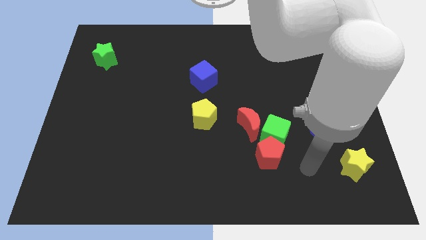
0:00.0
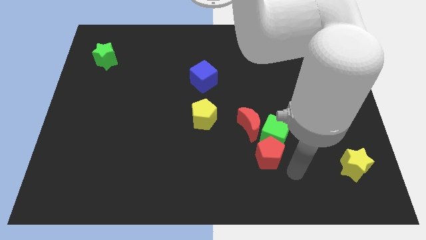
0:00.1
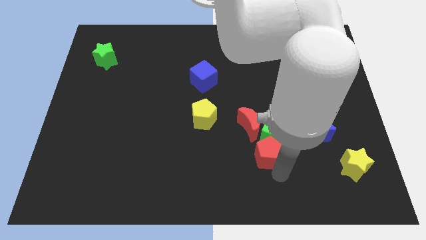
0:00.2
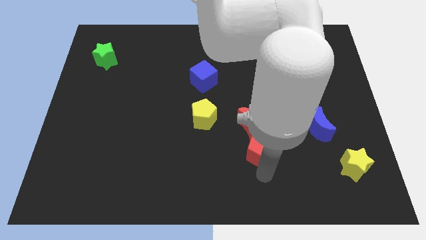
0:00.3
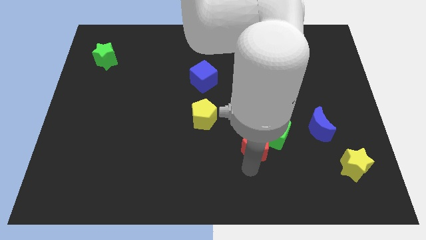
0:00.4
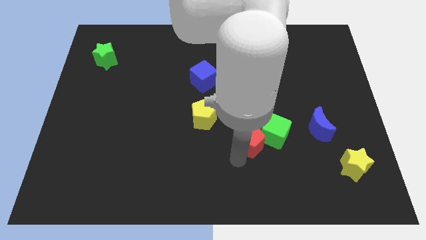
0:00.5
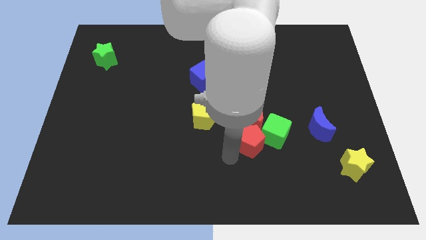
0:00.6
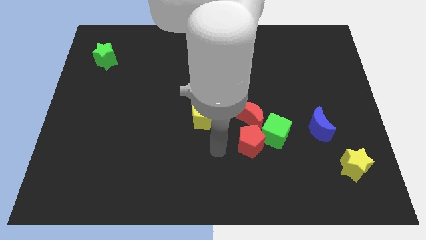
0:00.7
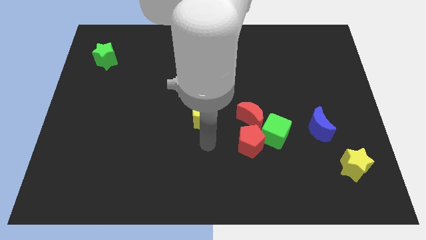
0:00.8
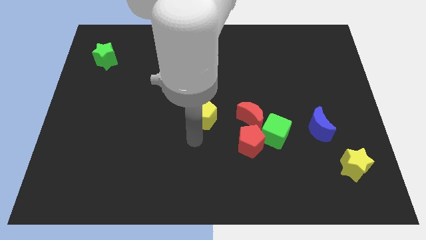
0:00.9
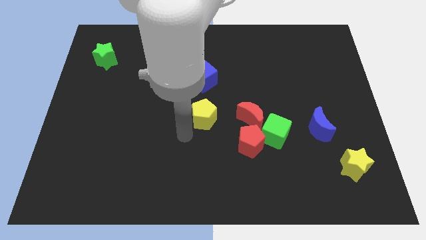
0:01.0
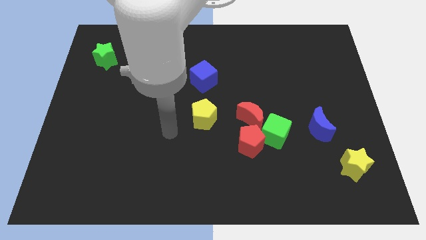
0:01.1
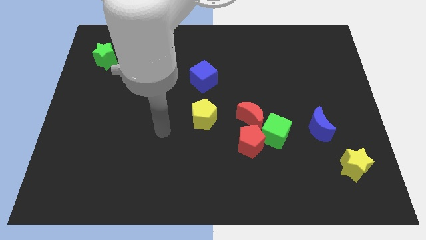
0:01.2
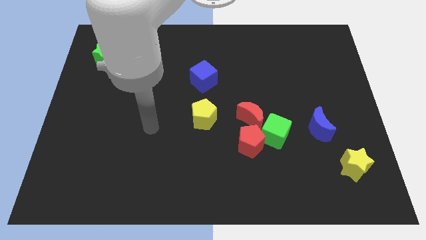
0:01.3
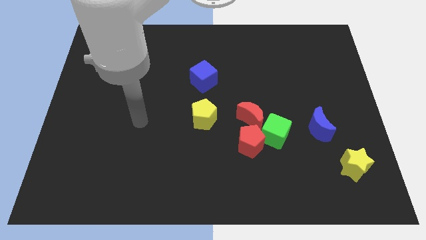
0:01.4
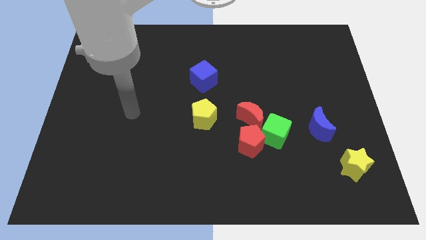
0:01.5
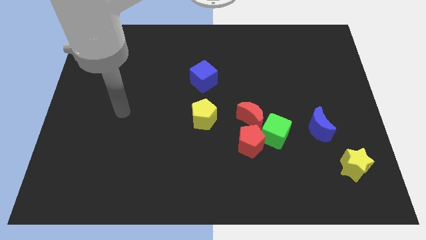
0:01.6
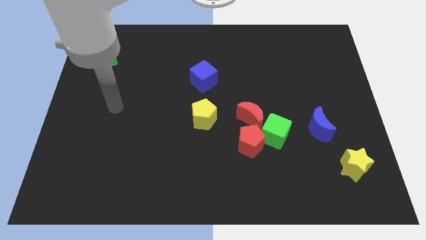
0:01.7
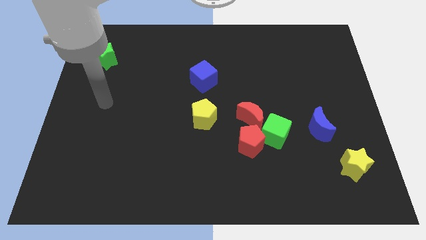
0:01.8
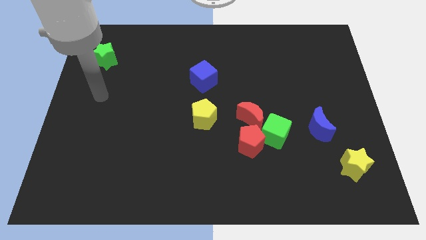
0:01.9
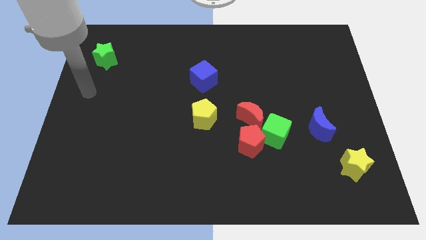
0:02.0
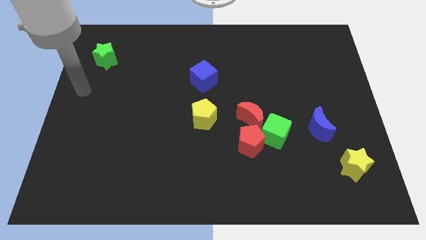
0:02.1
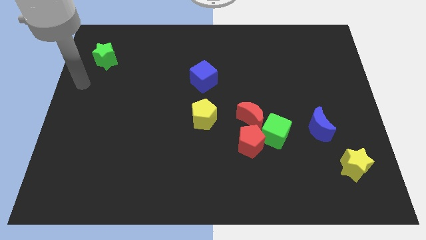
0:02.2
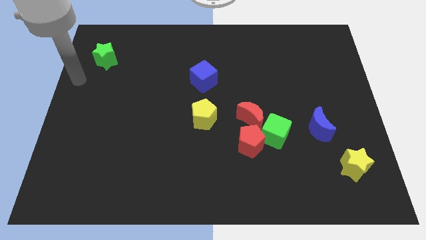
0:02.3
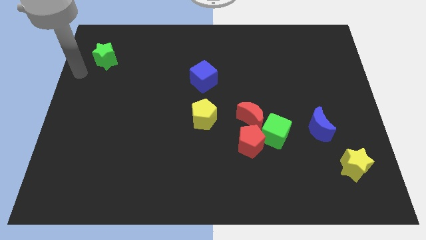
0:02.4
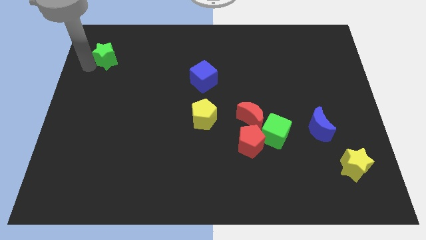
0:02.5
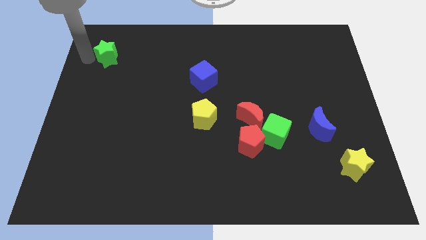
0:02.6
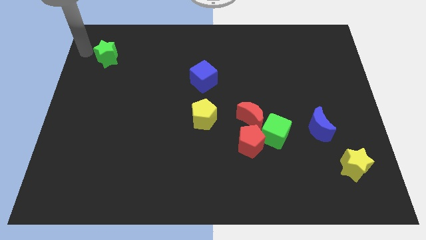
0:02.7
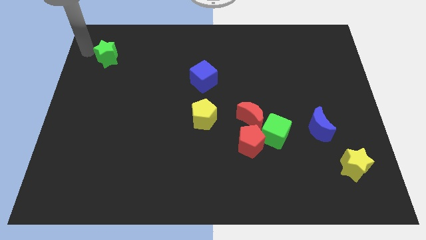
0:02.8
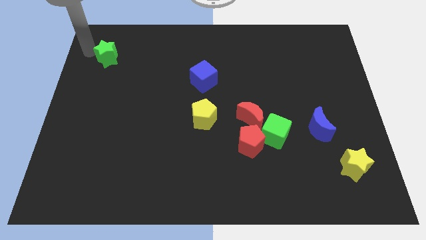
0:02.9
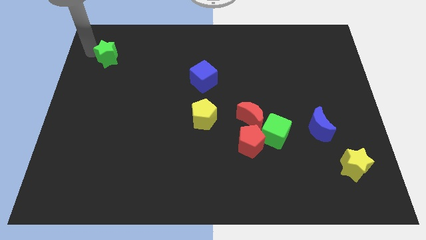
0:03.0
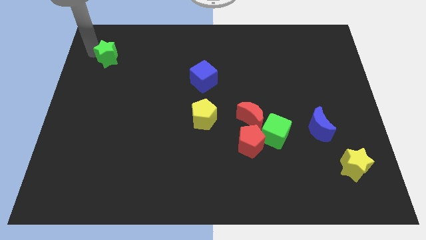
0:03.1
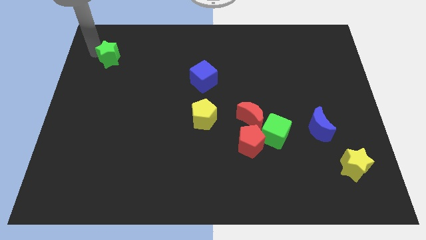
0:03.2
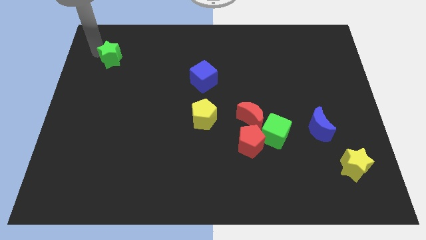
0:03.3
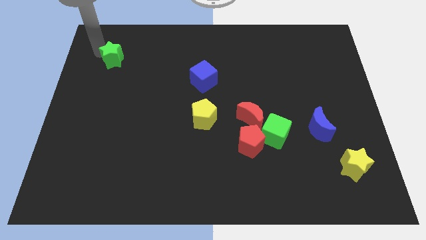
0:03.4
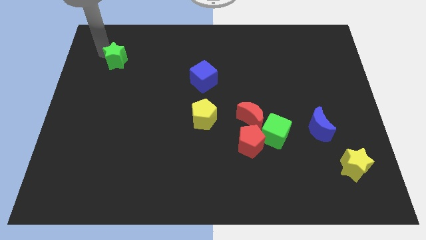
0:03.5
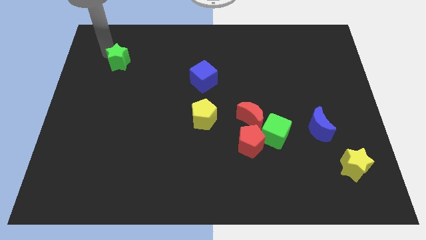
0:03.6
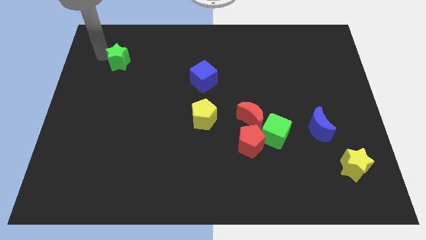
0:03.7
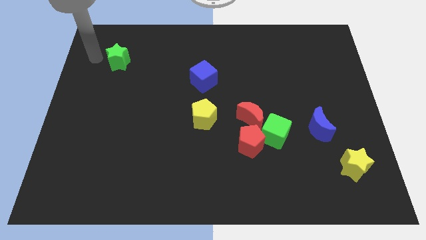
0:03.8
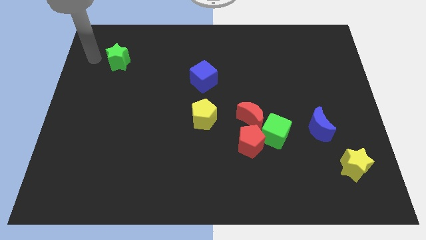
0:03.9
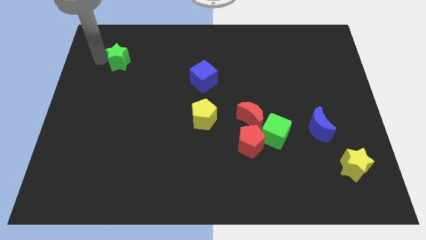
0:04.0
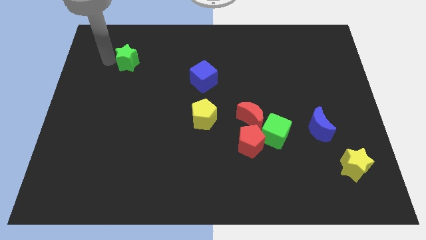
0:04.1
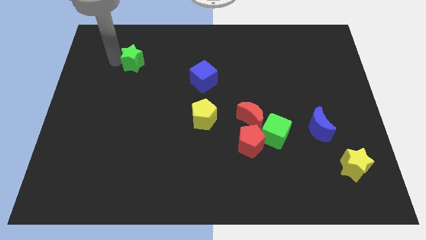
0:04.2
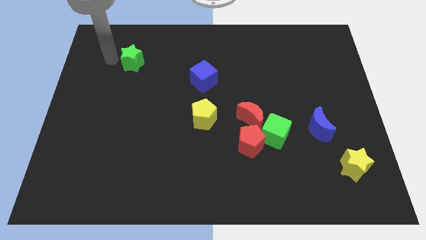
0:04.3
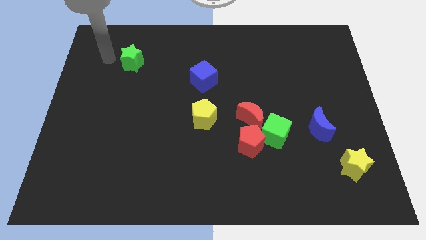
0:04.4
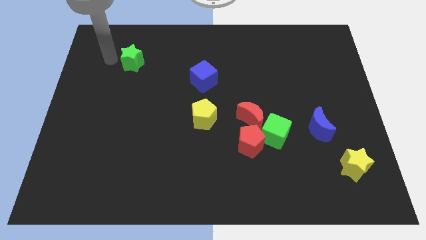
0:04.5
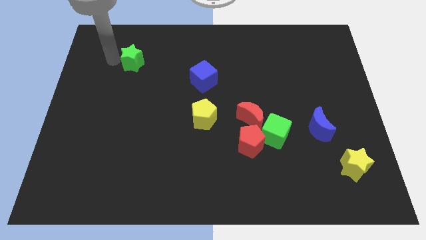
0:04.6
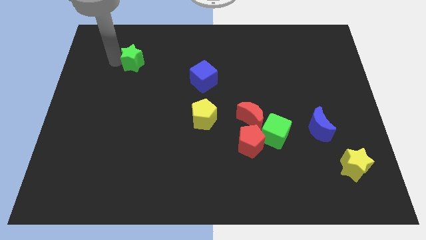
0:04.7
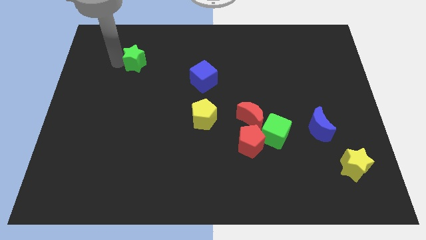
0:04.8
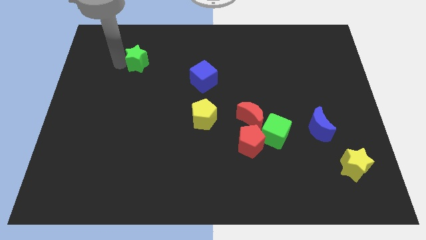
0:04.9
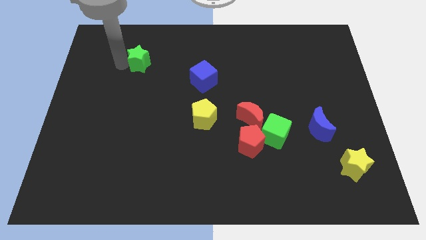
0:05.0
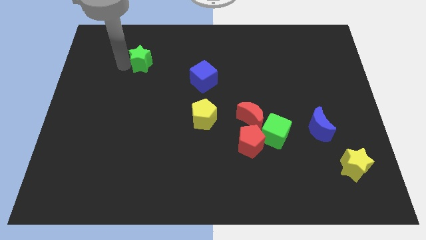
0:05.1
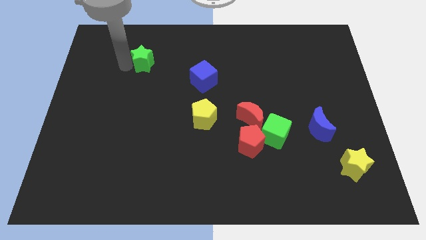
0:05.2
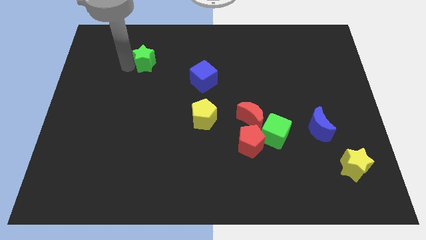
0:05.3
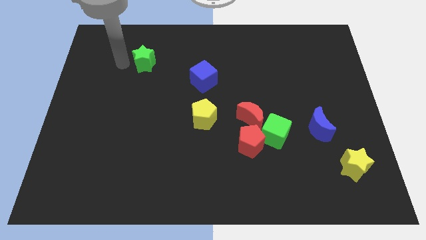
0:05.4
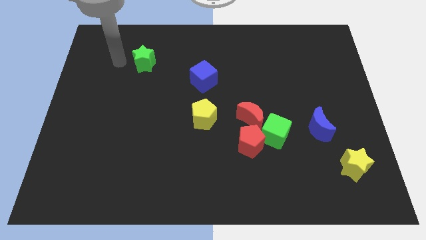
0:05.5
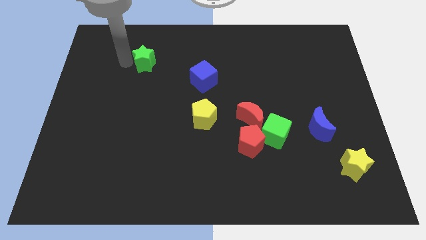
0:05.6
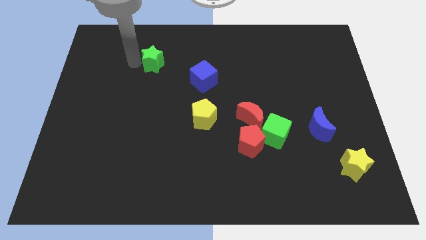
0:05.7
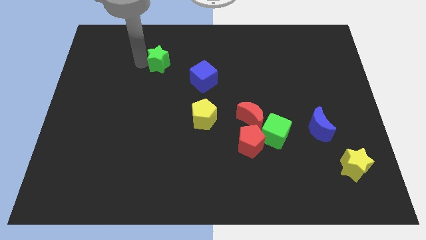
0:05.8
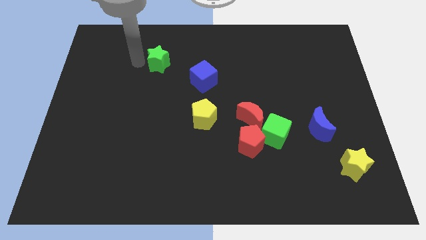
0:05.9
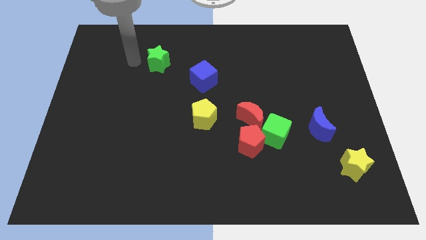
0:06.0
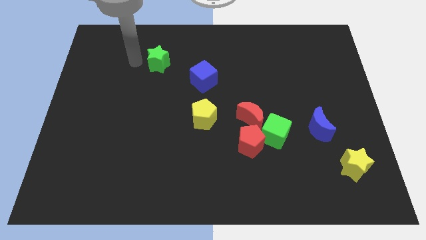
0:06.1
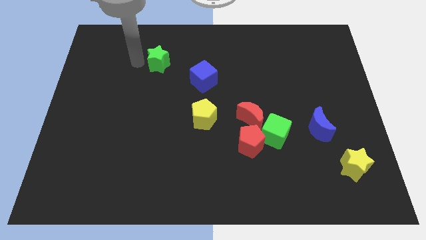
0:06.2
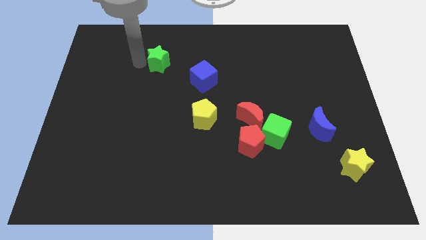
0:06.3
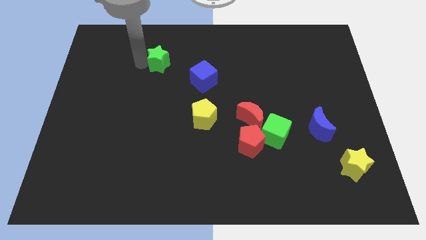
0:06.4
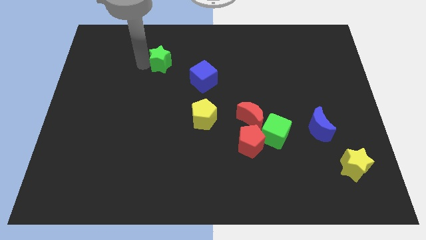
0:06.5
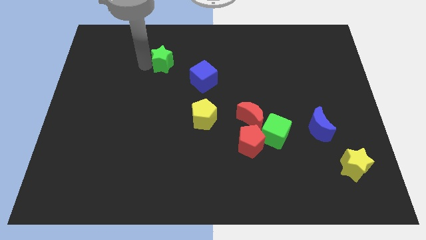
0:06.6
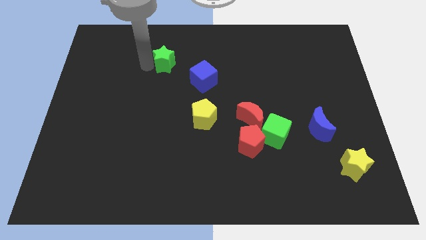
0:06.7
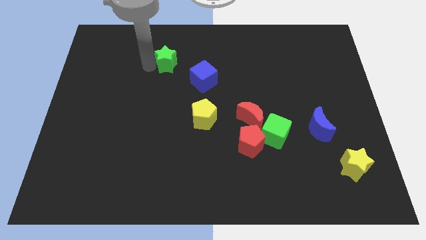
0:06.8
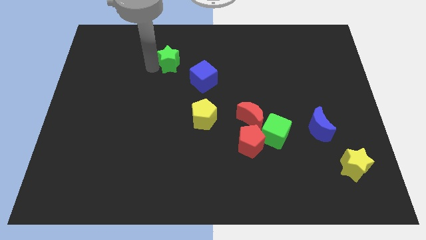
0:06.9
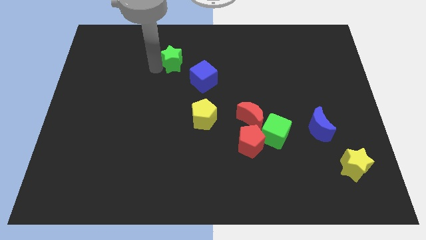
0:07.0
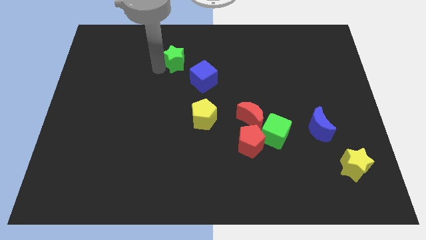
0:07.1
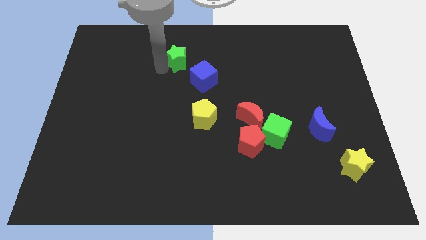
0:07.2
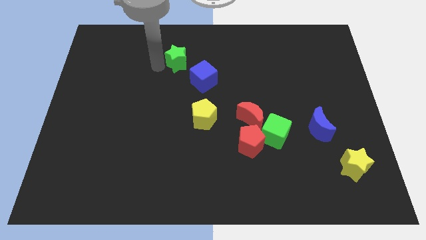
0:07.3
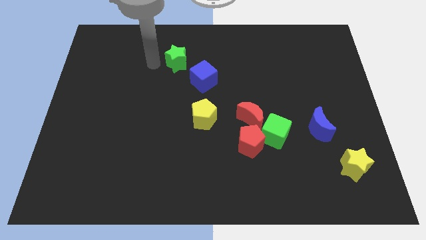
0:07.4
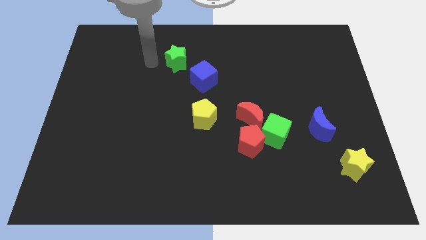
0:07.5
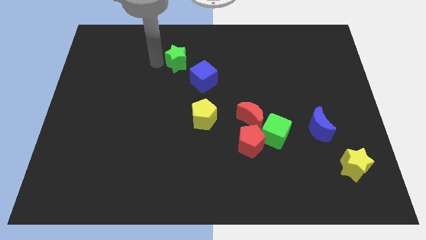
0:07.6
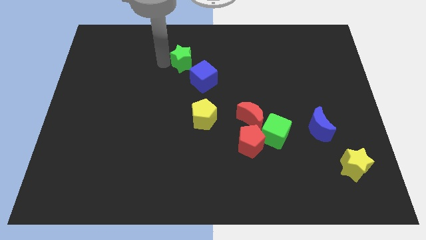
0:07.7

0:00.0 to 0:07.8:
push the green star right

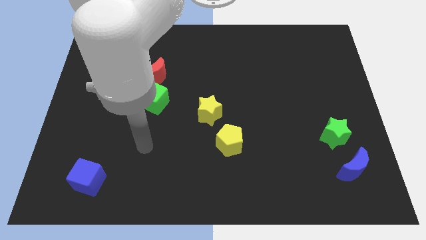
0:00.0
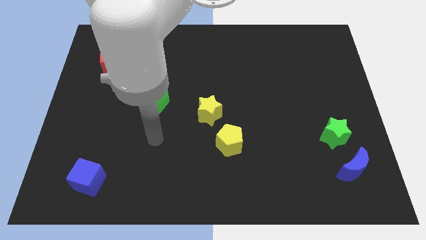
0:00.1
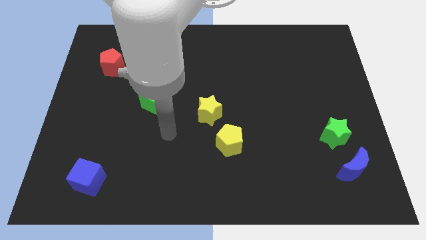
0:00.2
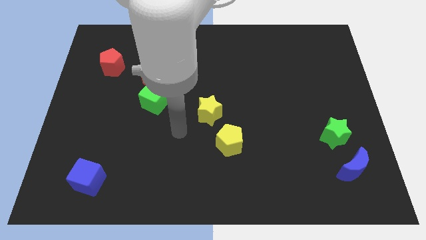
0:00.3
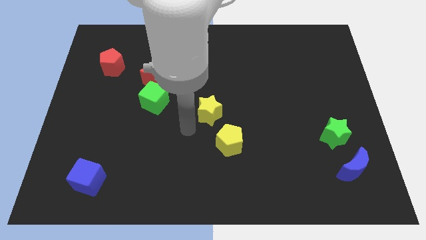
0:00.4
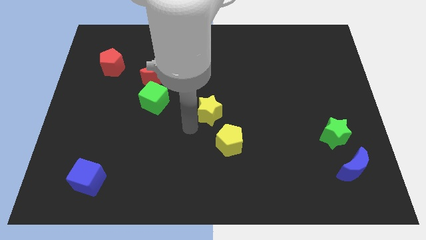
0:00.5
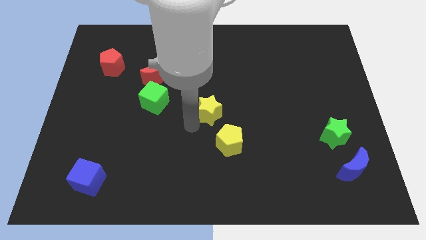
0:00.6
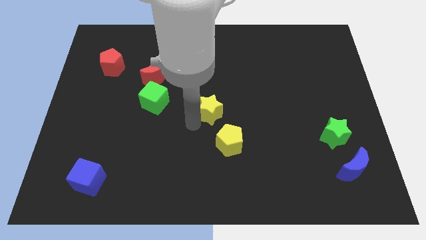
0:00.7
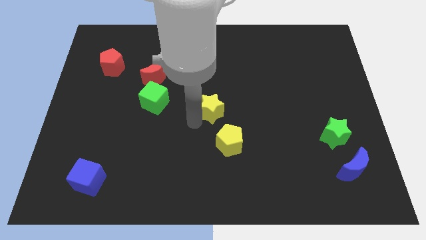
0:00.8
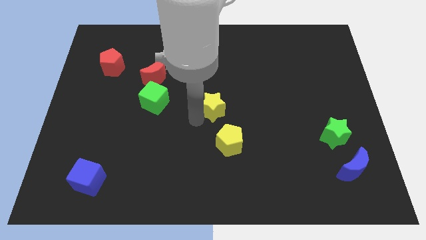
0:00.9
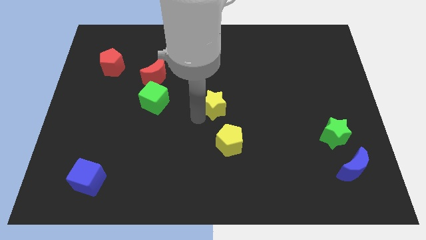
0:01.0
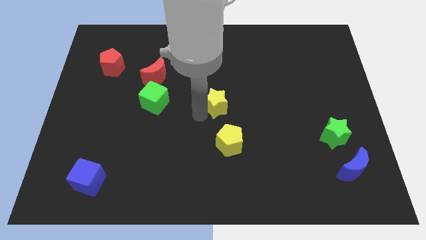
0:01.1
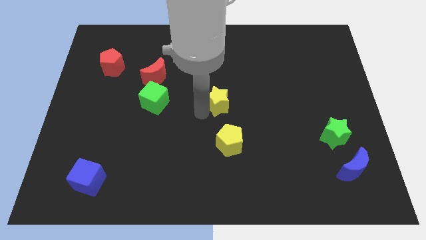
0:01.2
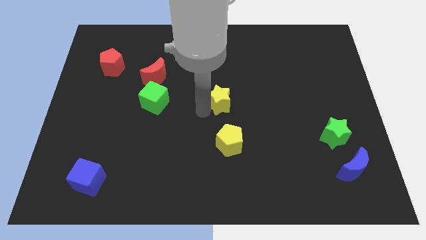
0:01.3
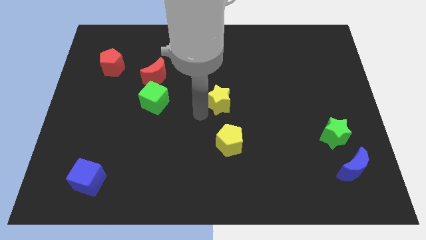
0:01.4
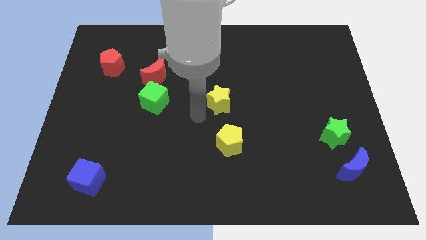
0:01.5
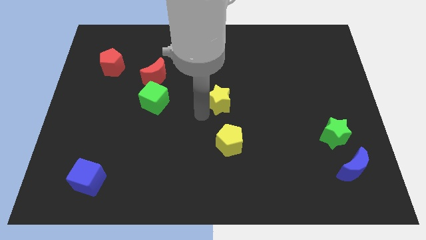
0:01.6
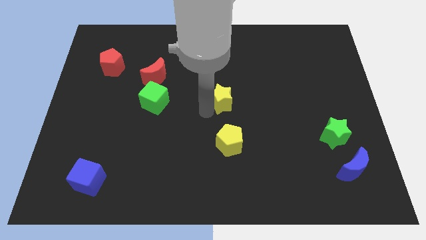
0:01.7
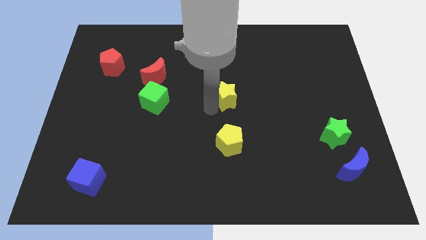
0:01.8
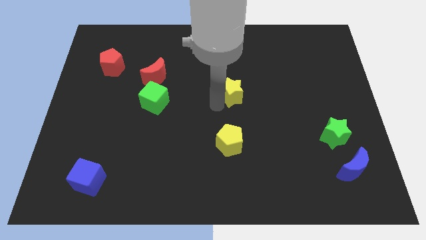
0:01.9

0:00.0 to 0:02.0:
push the yellow star up and right slightly
